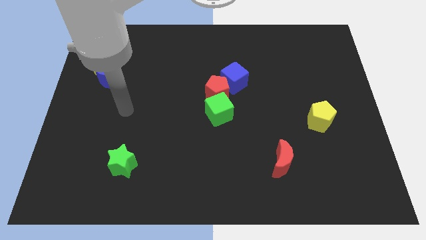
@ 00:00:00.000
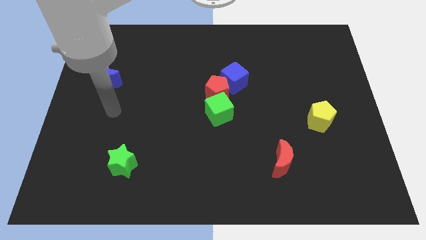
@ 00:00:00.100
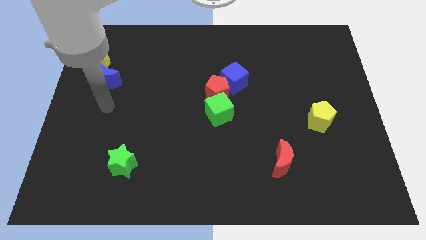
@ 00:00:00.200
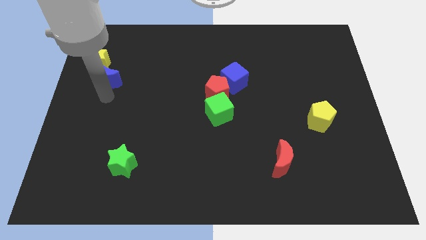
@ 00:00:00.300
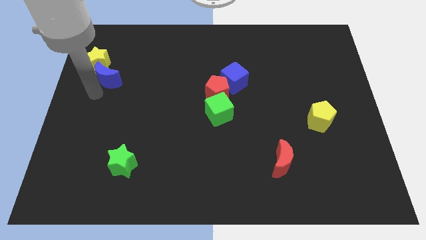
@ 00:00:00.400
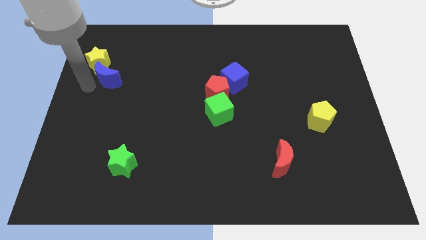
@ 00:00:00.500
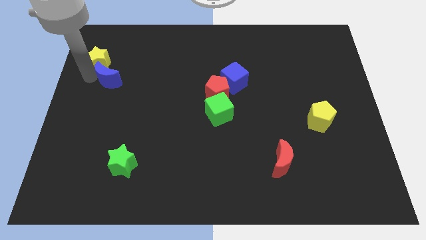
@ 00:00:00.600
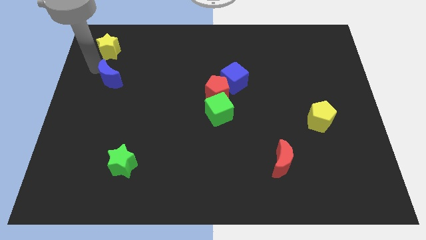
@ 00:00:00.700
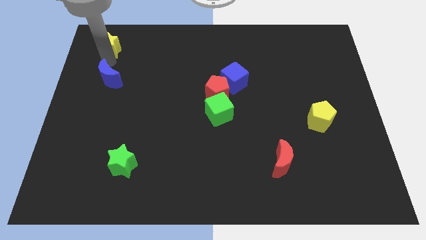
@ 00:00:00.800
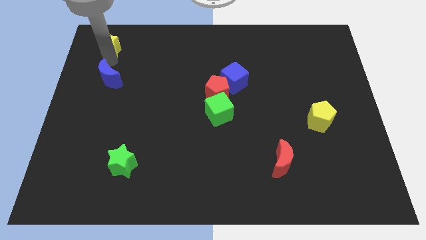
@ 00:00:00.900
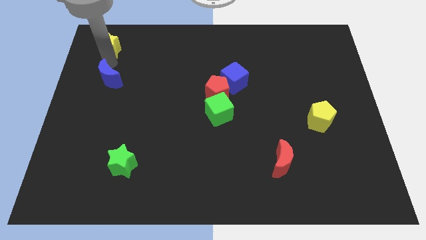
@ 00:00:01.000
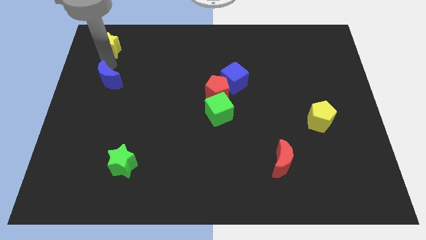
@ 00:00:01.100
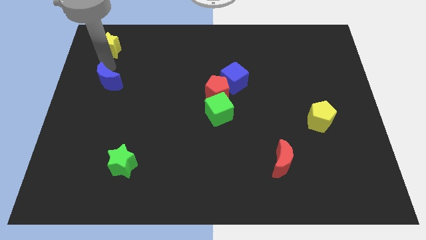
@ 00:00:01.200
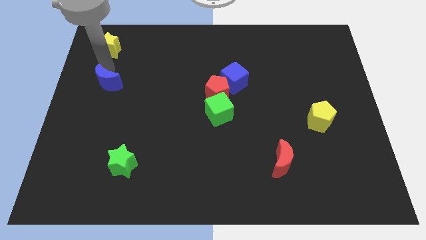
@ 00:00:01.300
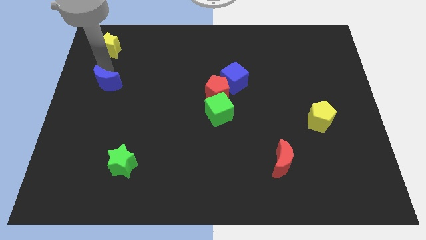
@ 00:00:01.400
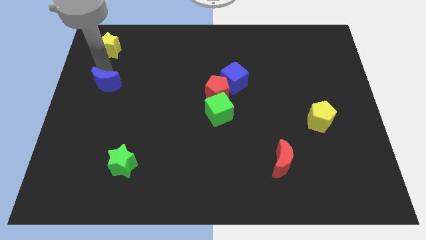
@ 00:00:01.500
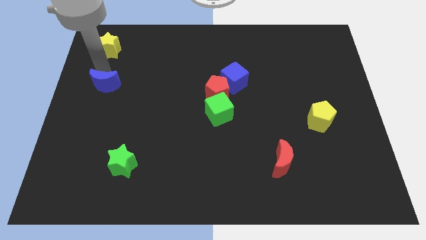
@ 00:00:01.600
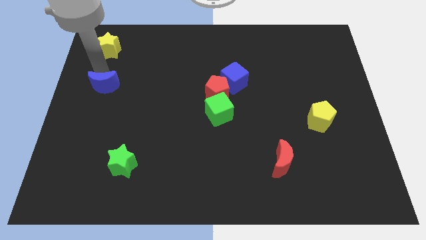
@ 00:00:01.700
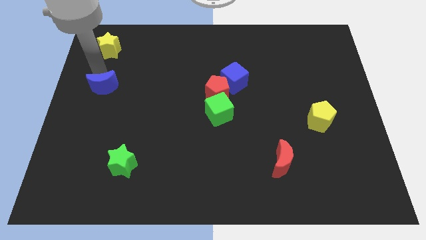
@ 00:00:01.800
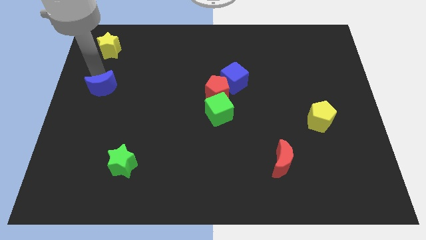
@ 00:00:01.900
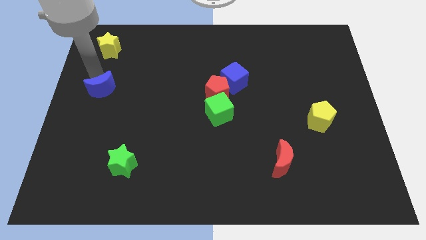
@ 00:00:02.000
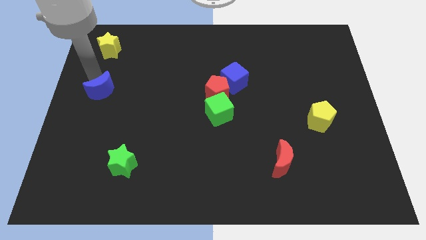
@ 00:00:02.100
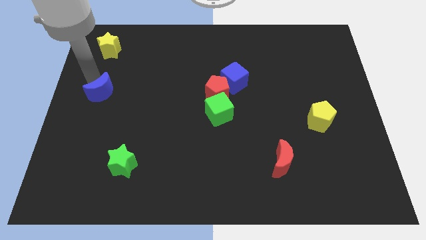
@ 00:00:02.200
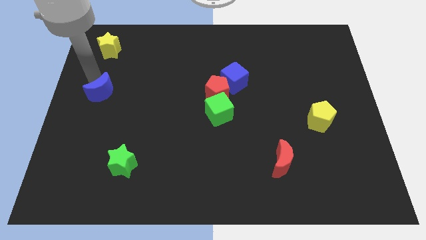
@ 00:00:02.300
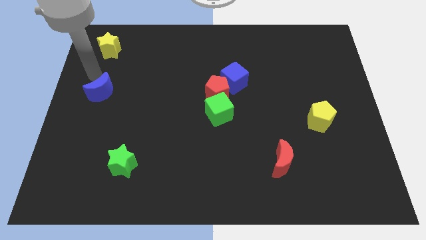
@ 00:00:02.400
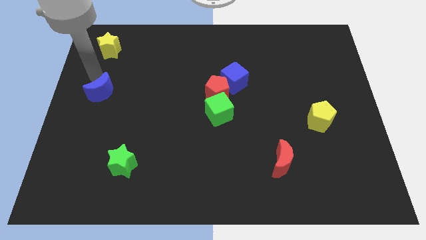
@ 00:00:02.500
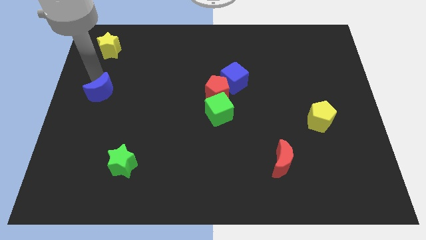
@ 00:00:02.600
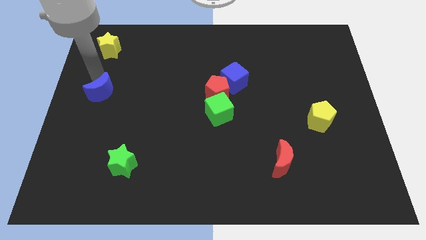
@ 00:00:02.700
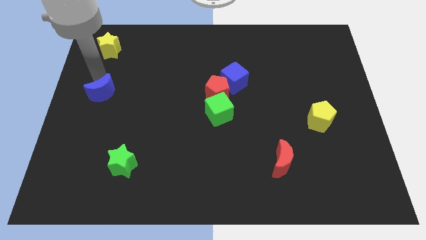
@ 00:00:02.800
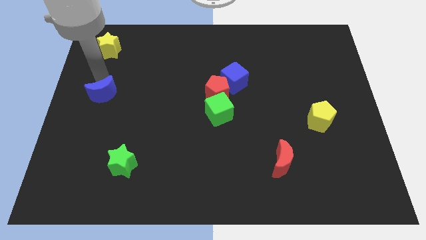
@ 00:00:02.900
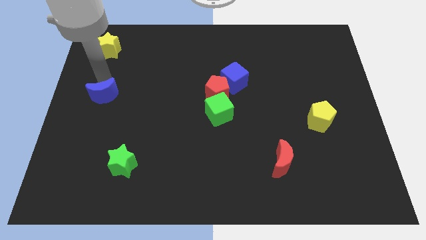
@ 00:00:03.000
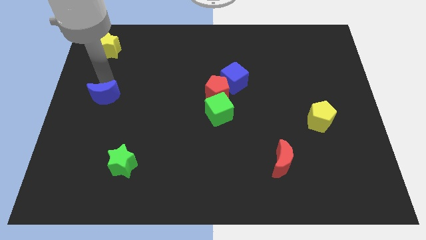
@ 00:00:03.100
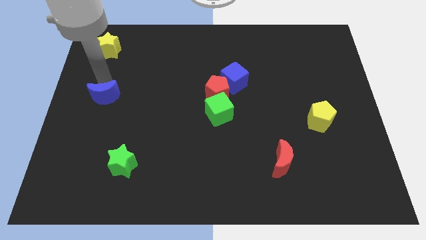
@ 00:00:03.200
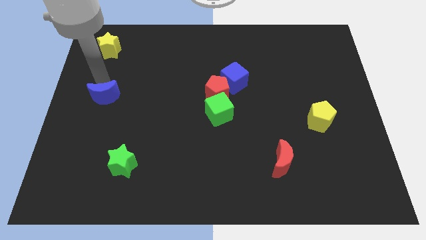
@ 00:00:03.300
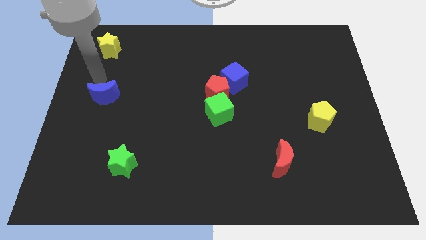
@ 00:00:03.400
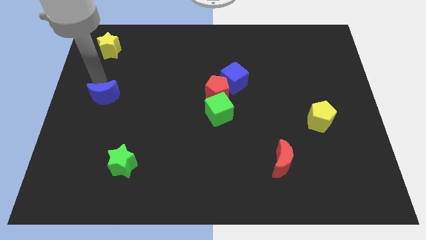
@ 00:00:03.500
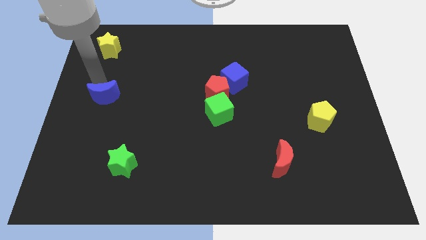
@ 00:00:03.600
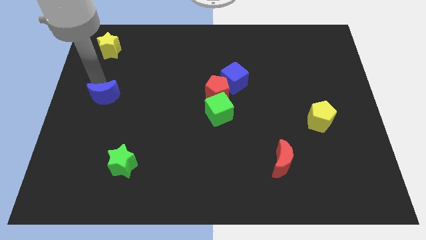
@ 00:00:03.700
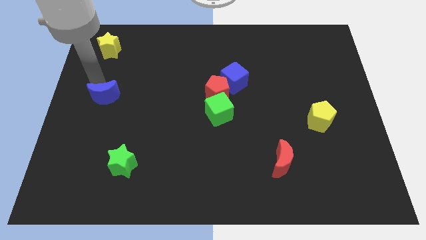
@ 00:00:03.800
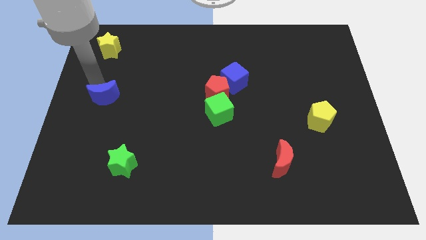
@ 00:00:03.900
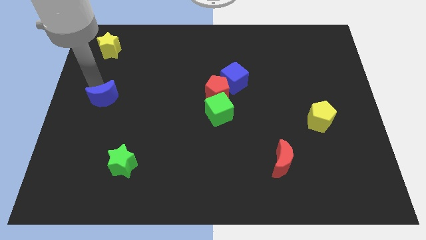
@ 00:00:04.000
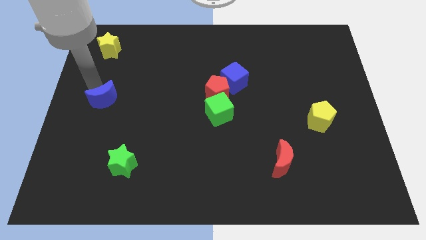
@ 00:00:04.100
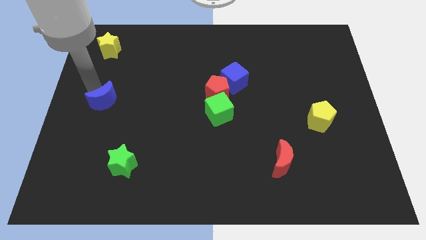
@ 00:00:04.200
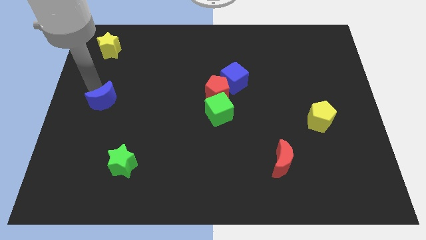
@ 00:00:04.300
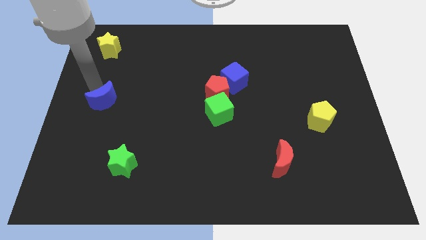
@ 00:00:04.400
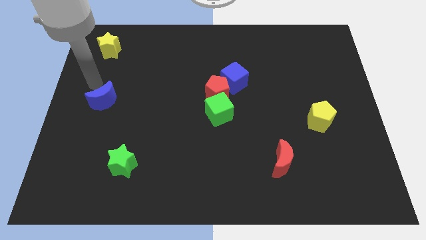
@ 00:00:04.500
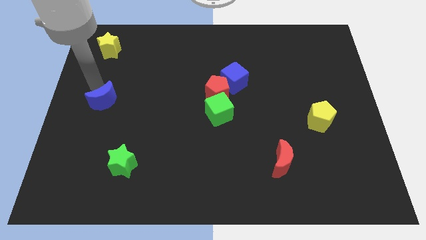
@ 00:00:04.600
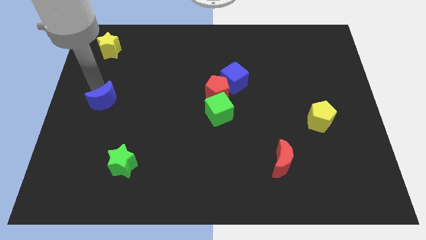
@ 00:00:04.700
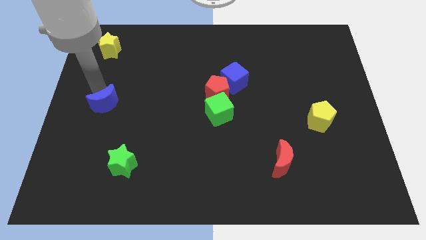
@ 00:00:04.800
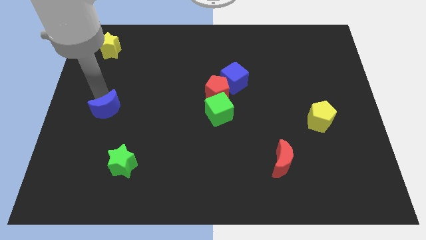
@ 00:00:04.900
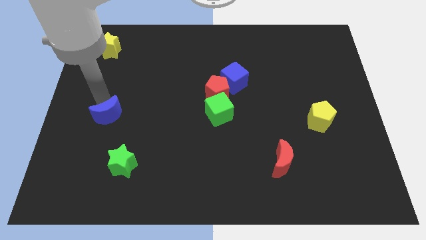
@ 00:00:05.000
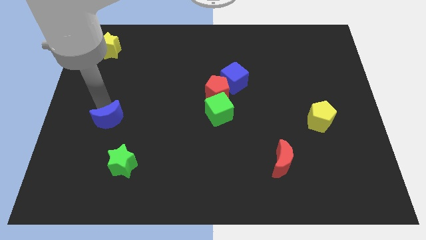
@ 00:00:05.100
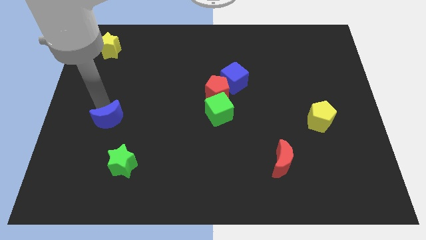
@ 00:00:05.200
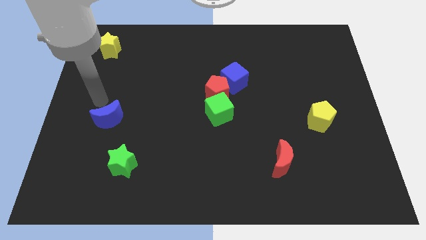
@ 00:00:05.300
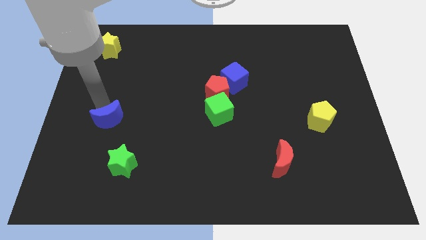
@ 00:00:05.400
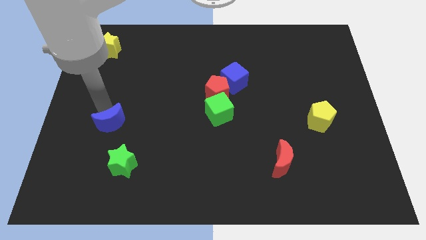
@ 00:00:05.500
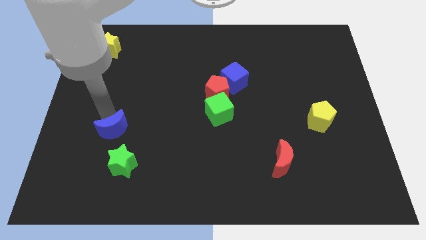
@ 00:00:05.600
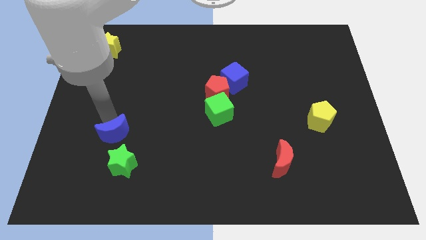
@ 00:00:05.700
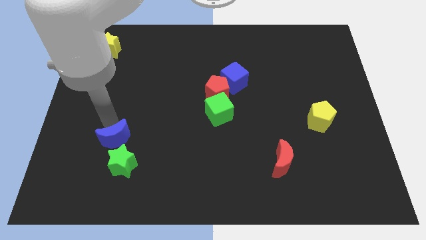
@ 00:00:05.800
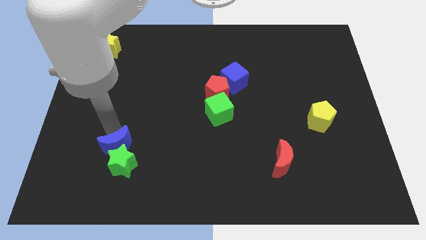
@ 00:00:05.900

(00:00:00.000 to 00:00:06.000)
push the blue moon towards the green star

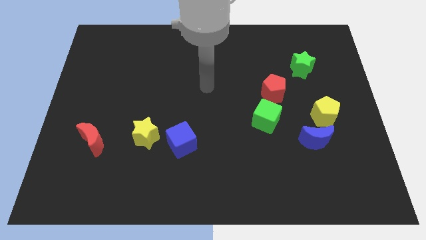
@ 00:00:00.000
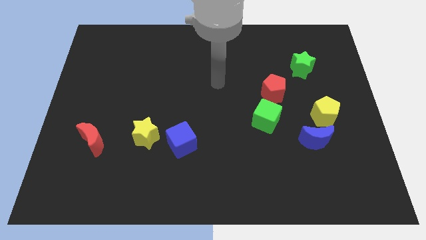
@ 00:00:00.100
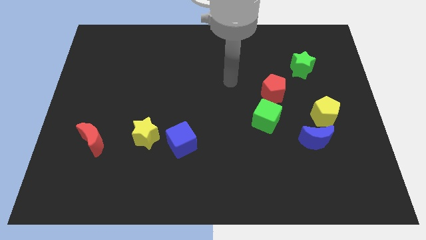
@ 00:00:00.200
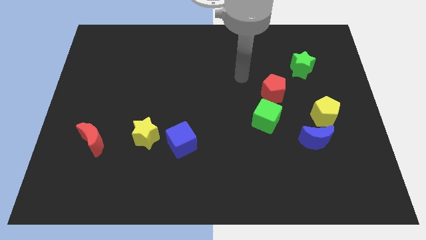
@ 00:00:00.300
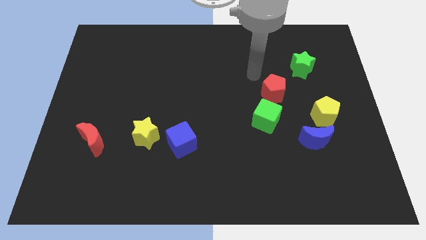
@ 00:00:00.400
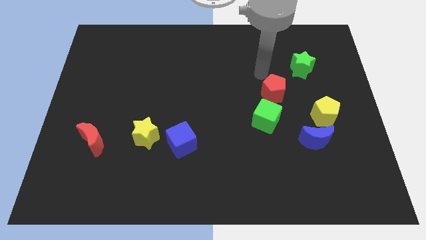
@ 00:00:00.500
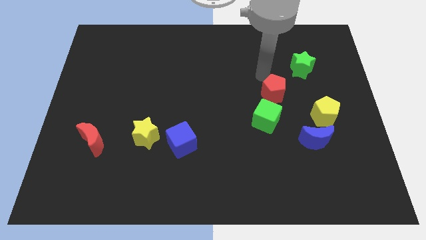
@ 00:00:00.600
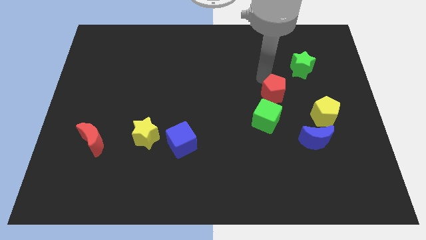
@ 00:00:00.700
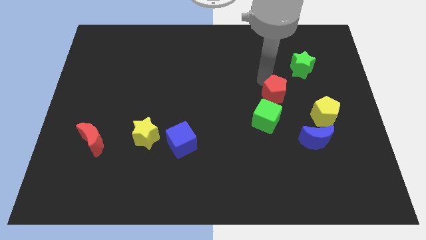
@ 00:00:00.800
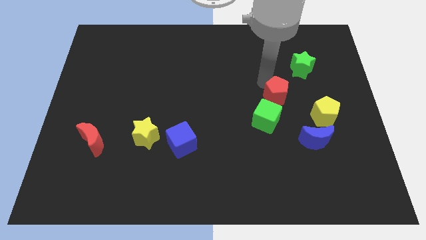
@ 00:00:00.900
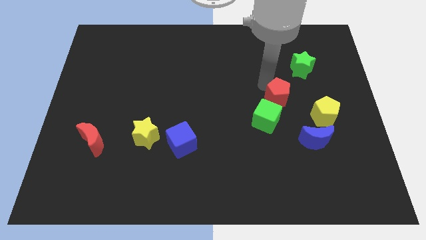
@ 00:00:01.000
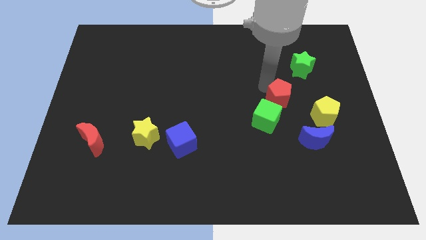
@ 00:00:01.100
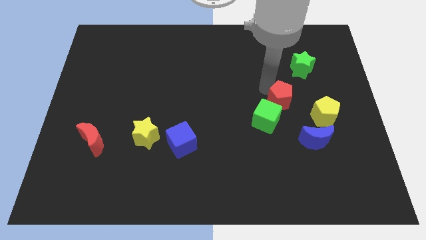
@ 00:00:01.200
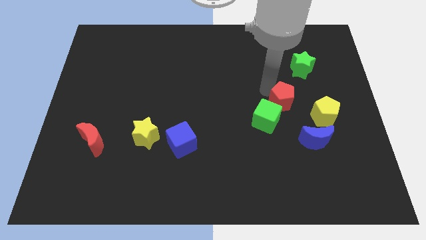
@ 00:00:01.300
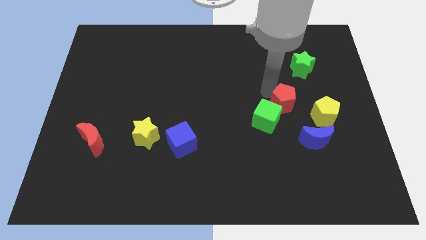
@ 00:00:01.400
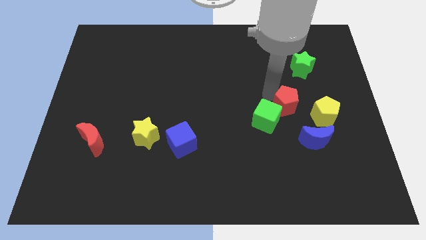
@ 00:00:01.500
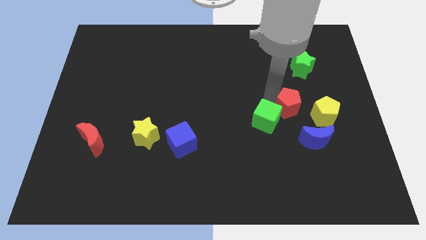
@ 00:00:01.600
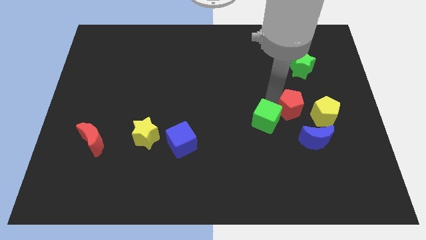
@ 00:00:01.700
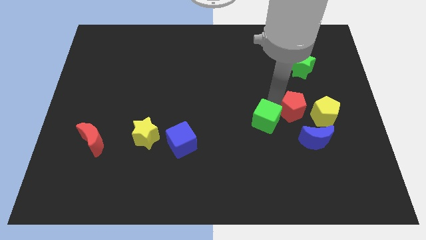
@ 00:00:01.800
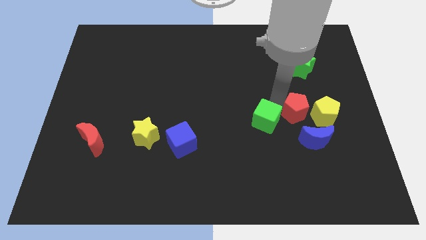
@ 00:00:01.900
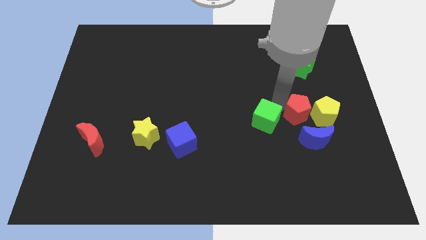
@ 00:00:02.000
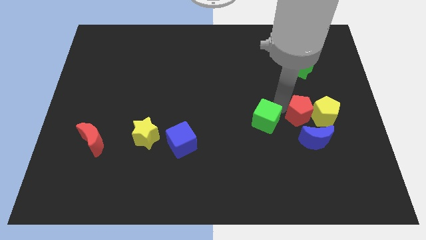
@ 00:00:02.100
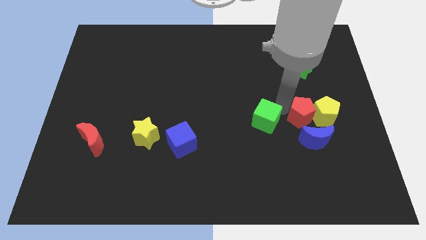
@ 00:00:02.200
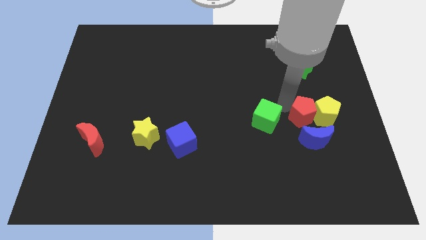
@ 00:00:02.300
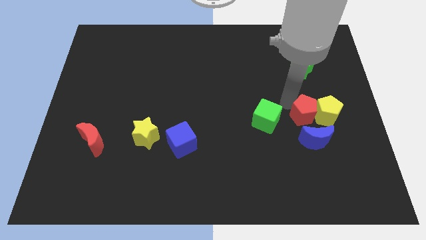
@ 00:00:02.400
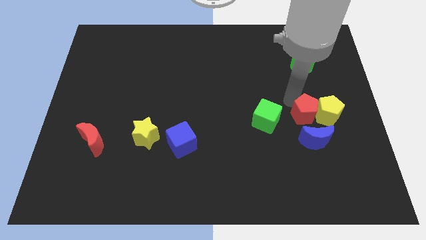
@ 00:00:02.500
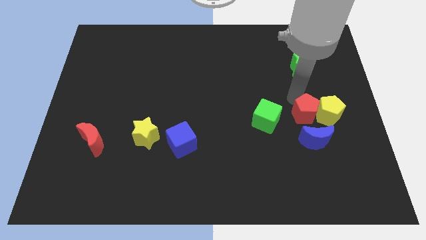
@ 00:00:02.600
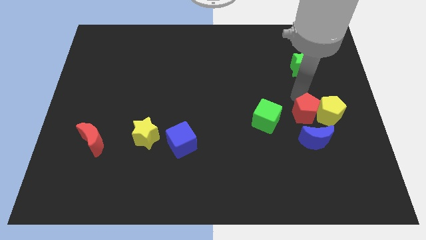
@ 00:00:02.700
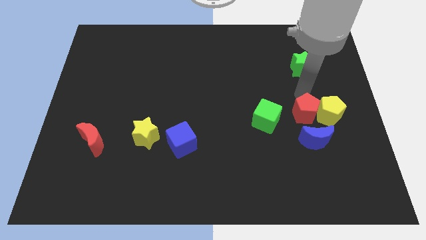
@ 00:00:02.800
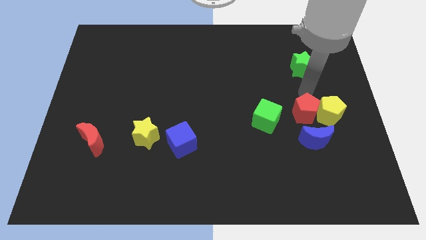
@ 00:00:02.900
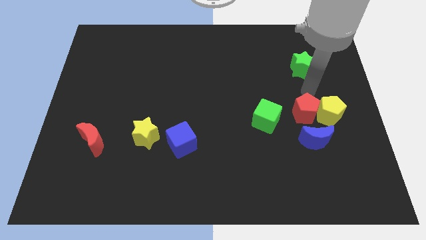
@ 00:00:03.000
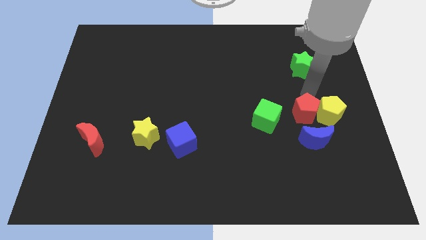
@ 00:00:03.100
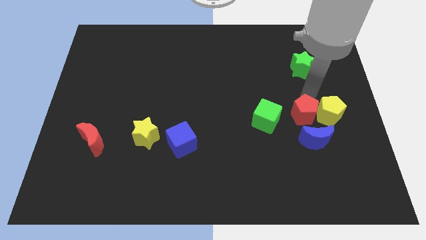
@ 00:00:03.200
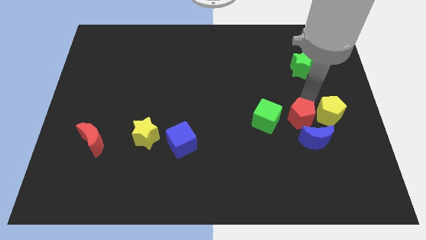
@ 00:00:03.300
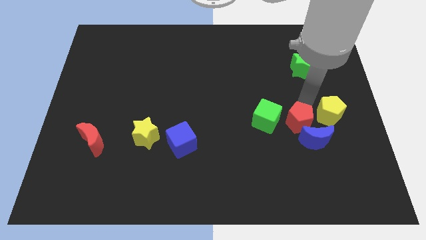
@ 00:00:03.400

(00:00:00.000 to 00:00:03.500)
move the red pentagon to the blue moon
